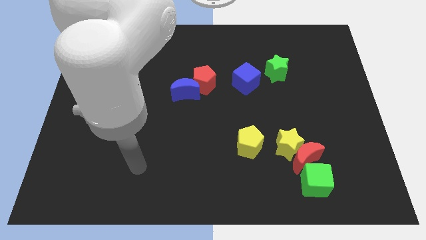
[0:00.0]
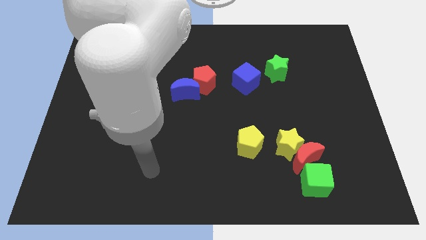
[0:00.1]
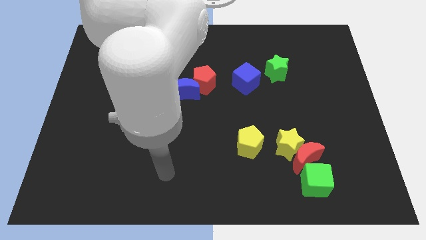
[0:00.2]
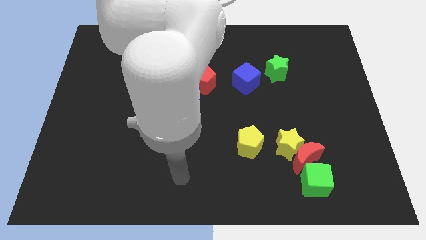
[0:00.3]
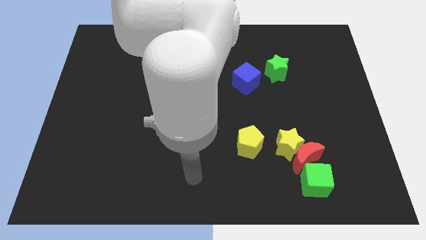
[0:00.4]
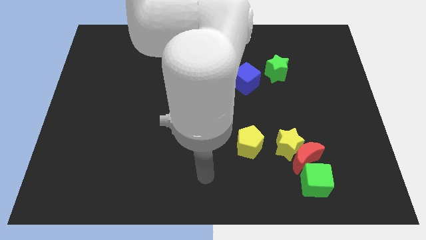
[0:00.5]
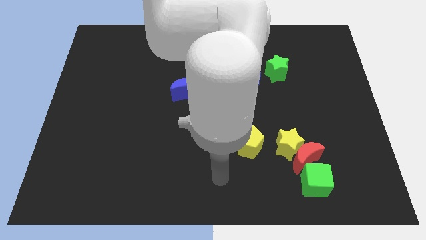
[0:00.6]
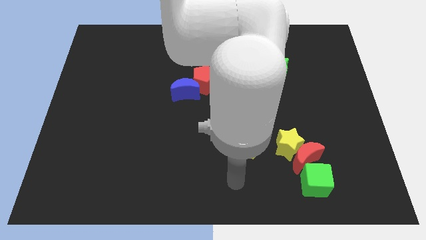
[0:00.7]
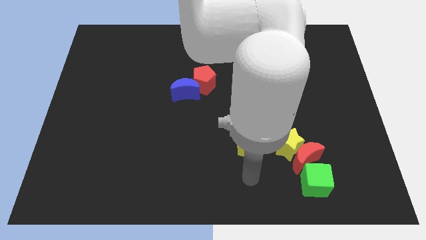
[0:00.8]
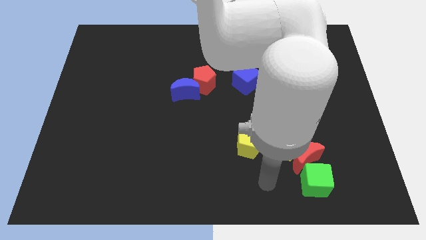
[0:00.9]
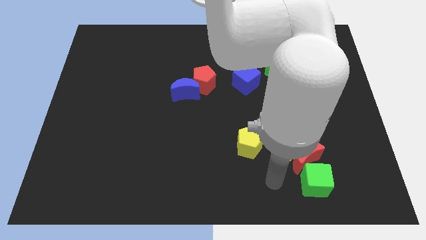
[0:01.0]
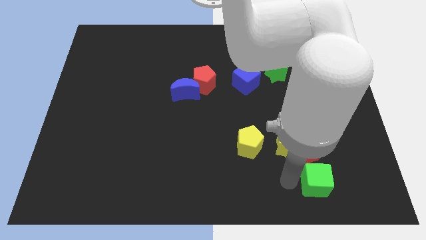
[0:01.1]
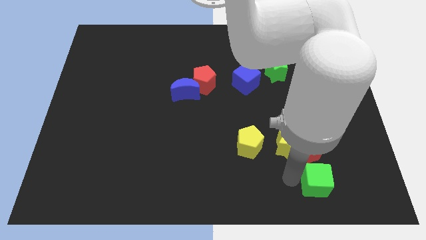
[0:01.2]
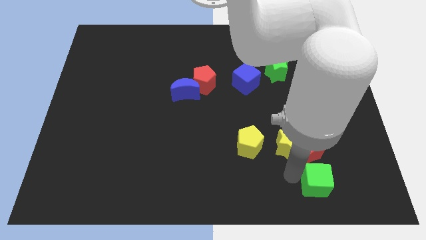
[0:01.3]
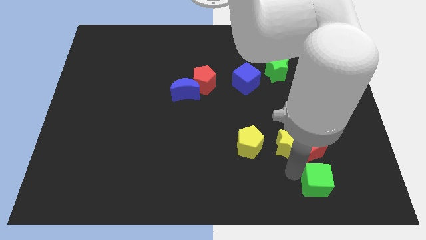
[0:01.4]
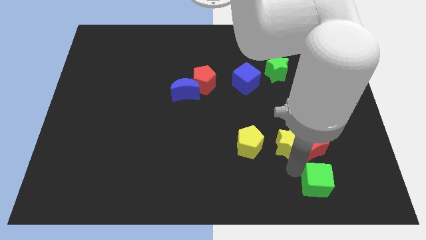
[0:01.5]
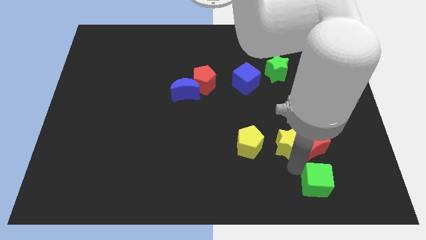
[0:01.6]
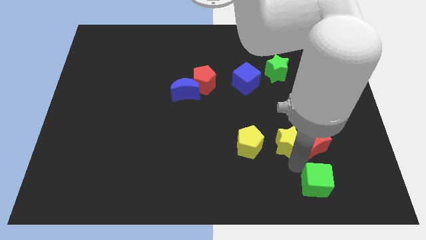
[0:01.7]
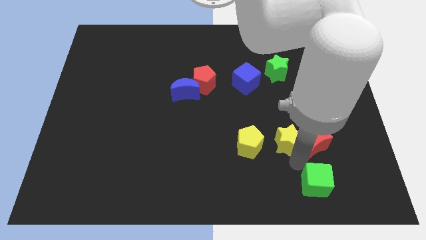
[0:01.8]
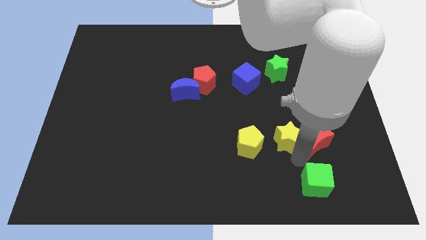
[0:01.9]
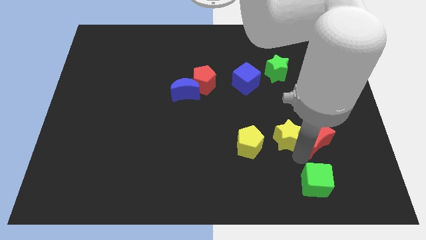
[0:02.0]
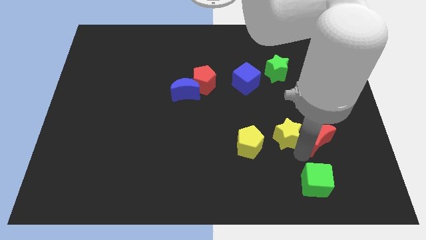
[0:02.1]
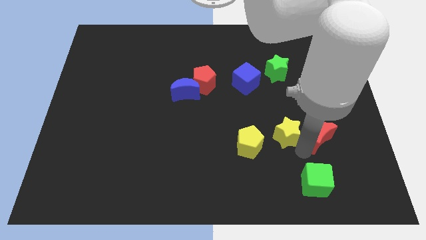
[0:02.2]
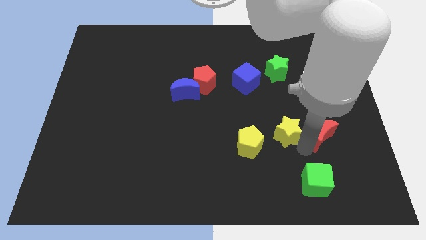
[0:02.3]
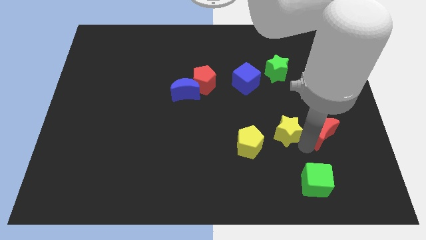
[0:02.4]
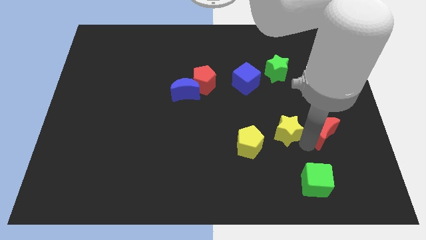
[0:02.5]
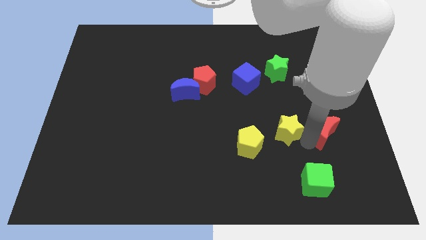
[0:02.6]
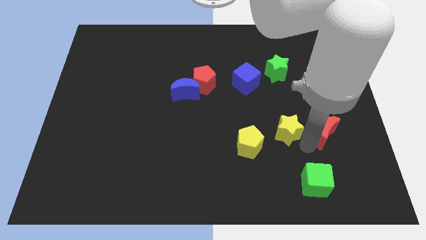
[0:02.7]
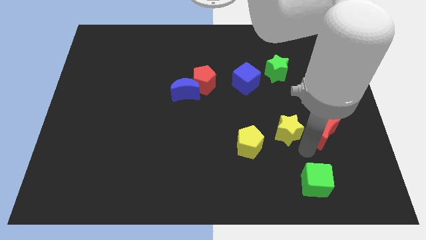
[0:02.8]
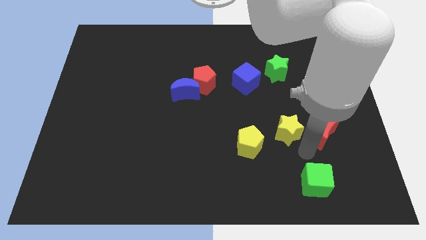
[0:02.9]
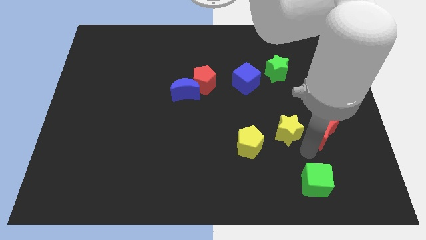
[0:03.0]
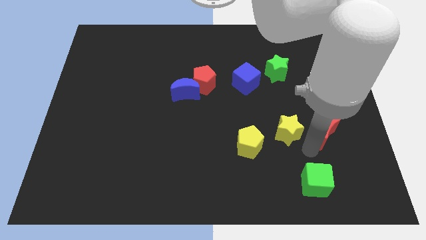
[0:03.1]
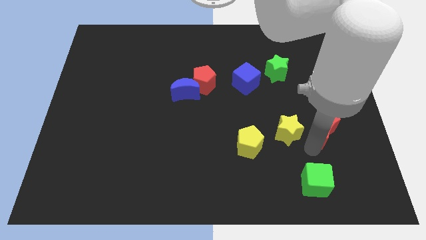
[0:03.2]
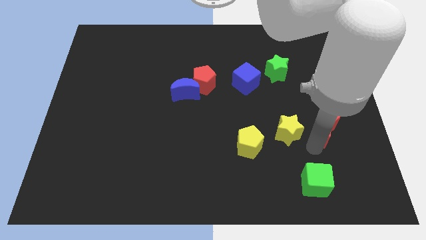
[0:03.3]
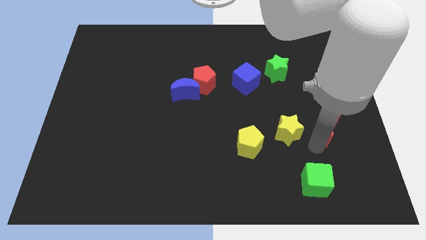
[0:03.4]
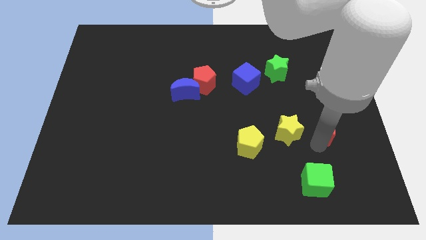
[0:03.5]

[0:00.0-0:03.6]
move the red moon away from the yellow star and green cube

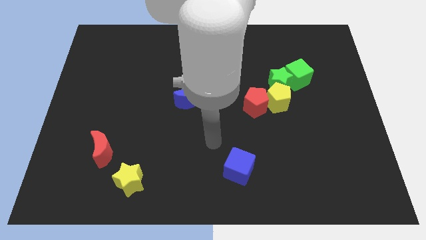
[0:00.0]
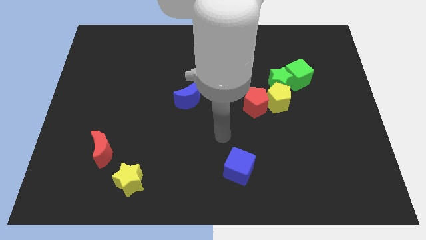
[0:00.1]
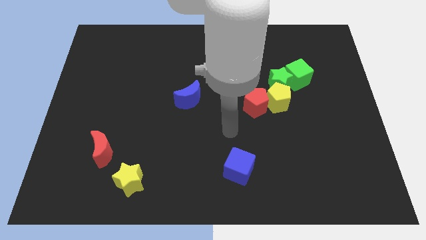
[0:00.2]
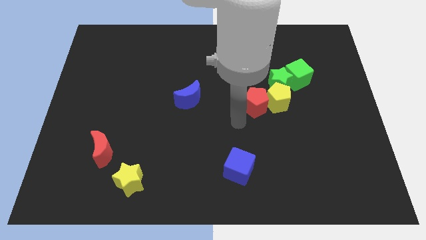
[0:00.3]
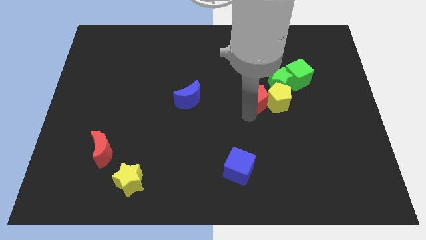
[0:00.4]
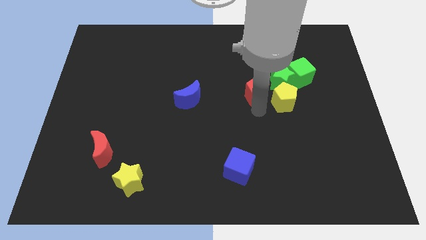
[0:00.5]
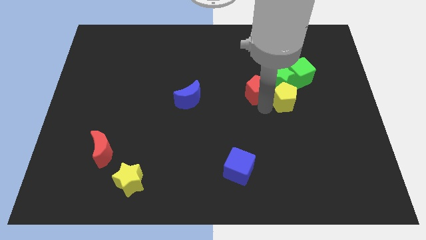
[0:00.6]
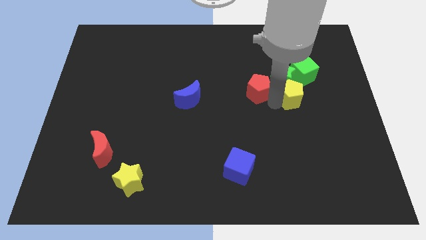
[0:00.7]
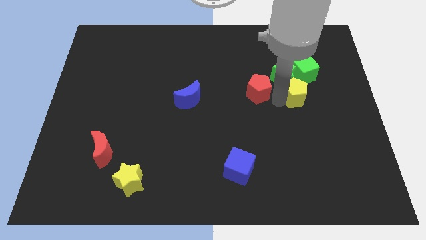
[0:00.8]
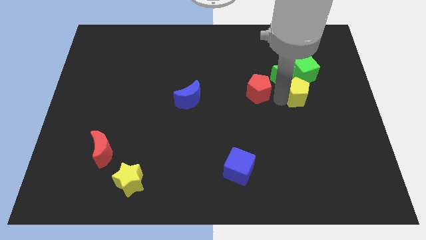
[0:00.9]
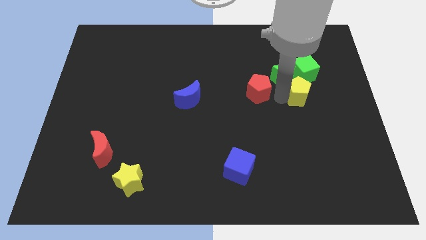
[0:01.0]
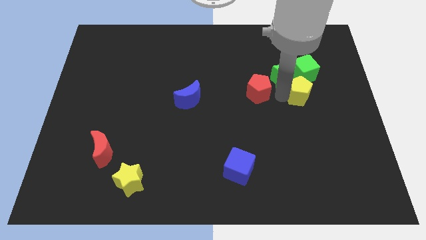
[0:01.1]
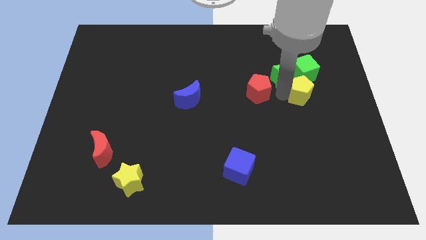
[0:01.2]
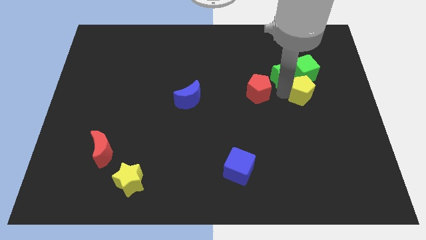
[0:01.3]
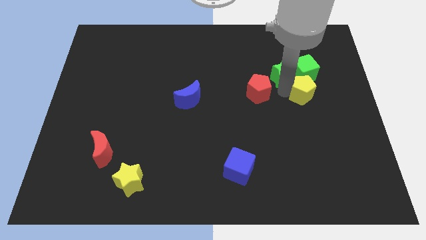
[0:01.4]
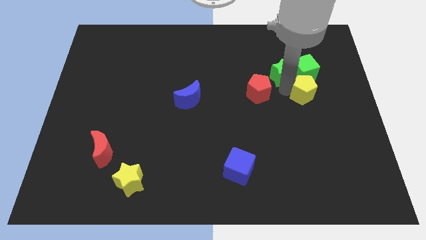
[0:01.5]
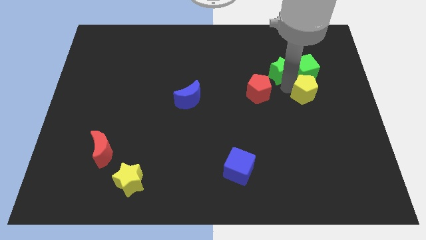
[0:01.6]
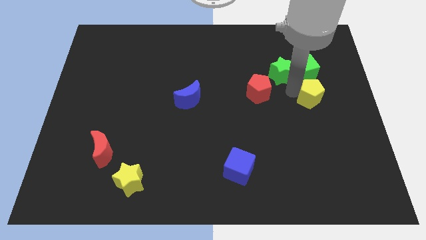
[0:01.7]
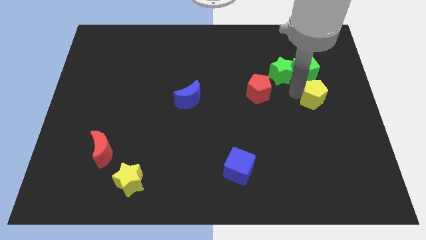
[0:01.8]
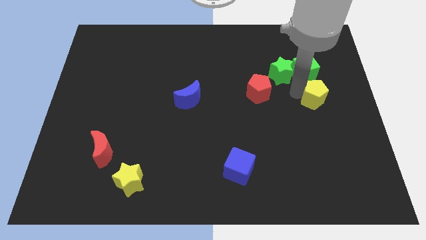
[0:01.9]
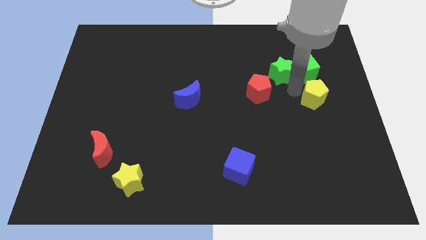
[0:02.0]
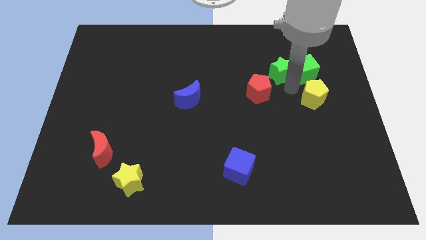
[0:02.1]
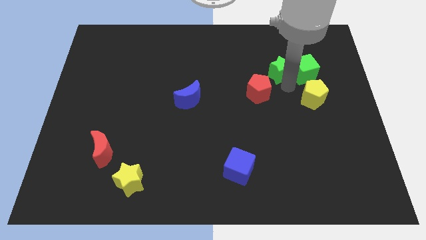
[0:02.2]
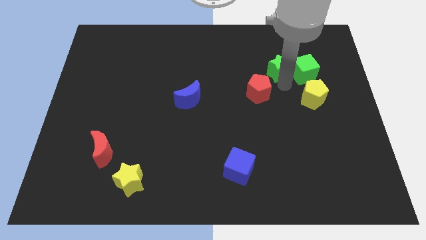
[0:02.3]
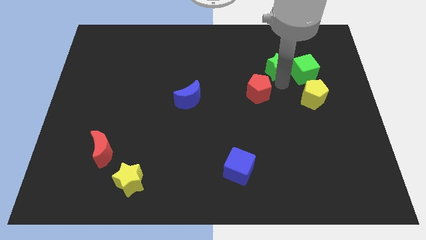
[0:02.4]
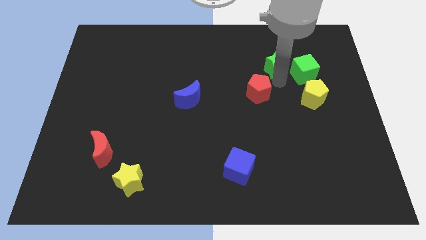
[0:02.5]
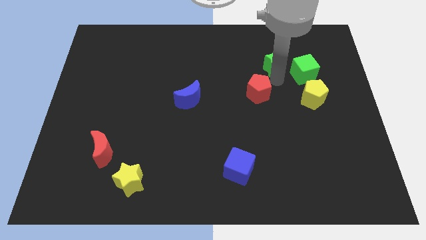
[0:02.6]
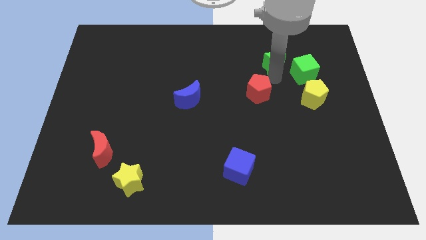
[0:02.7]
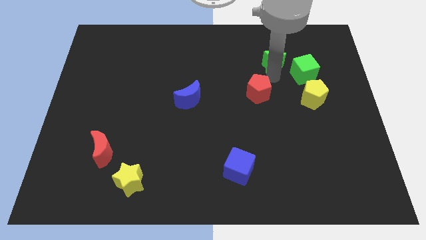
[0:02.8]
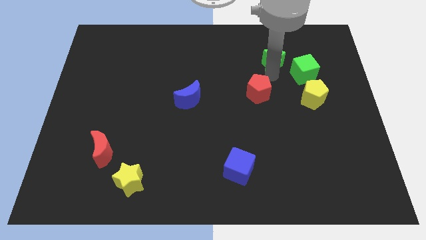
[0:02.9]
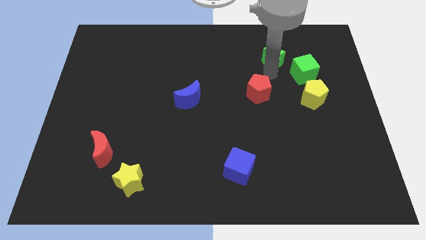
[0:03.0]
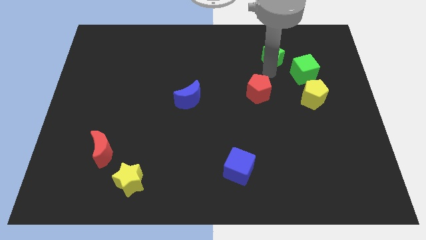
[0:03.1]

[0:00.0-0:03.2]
move the green star away from the group of blocks

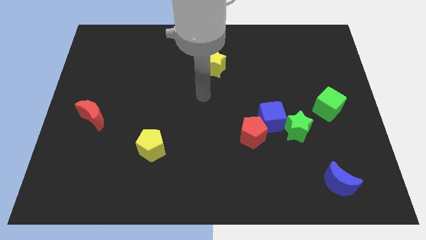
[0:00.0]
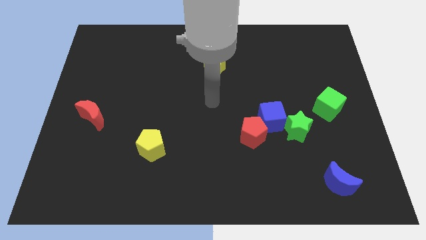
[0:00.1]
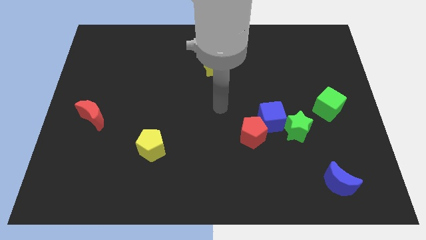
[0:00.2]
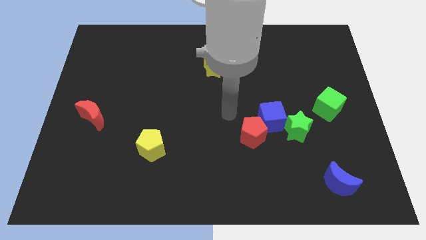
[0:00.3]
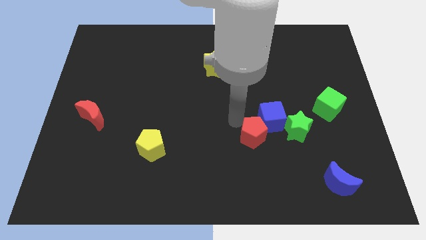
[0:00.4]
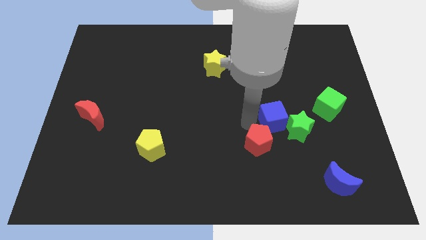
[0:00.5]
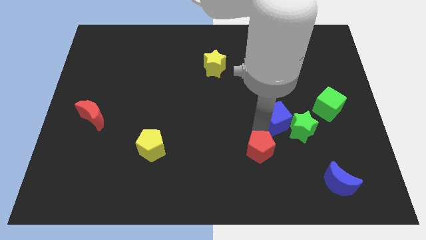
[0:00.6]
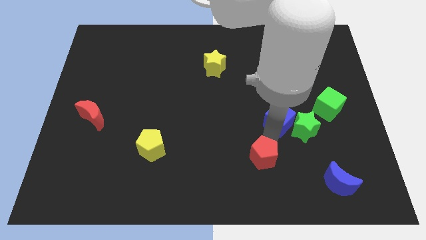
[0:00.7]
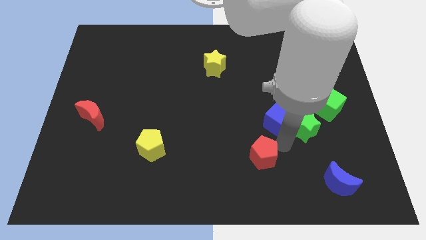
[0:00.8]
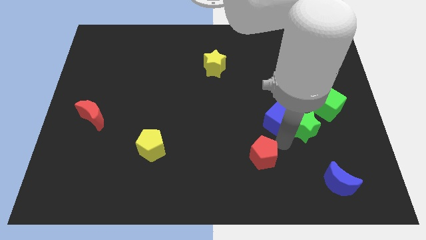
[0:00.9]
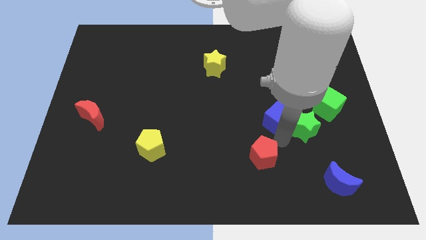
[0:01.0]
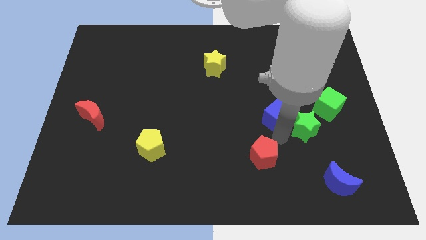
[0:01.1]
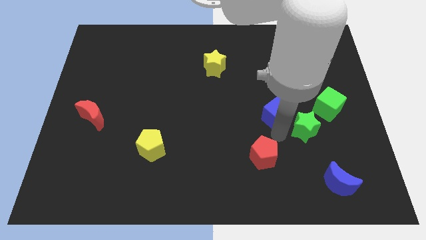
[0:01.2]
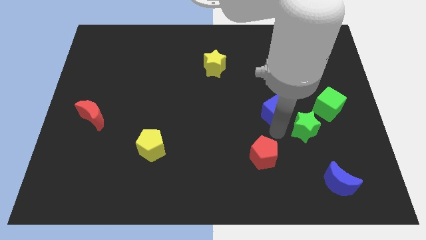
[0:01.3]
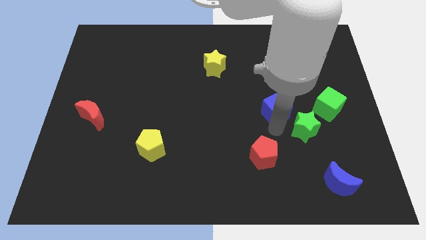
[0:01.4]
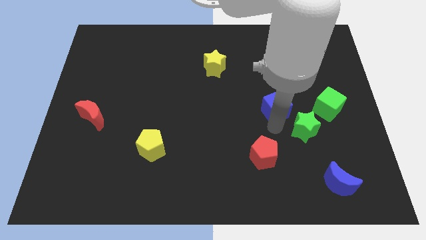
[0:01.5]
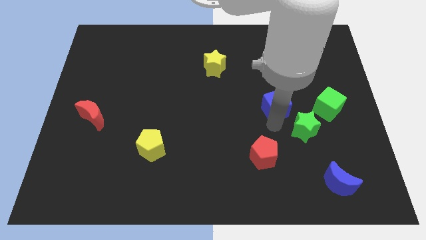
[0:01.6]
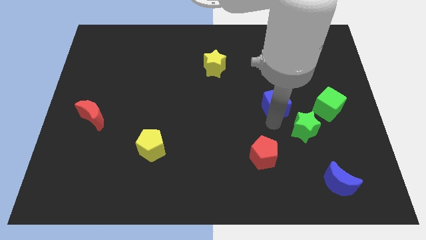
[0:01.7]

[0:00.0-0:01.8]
pull the blue cube apart from the green star and red pentagon

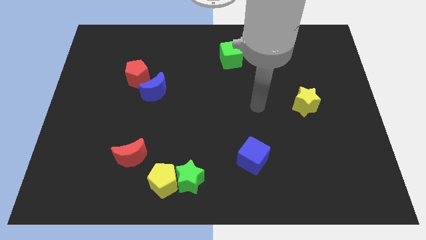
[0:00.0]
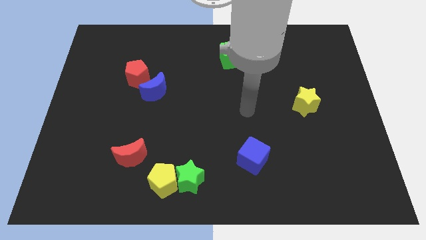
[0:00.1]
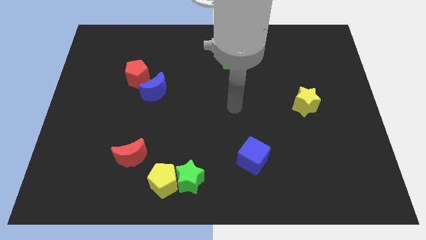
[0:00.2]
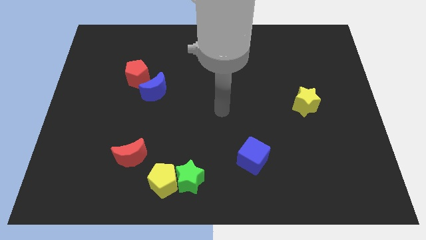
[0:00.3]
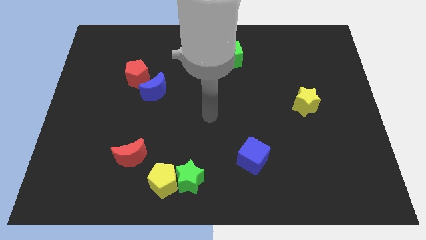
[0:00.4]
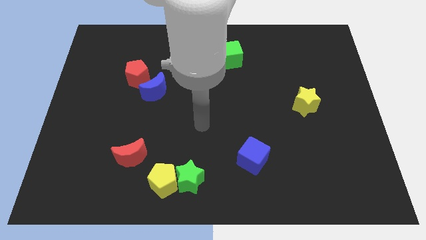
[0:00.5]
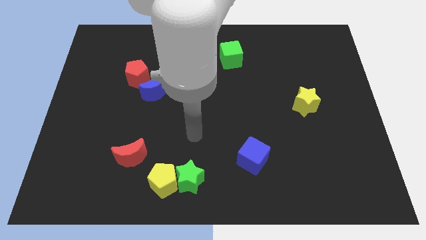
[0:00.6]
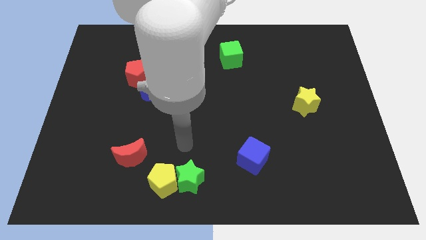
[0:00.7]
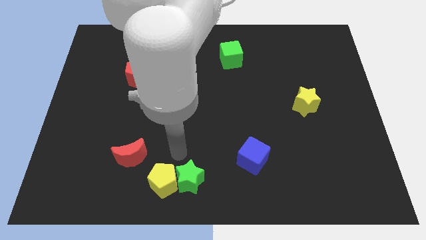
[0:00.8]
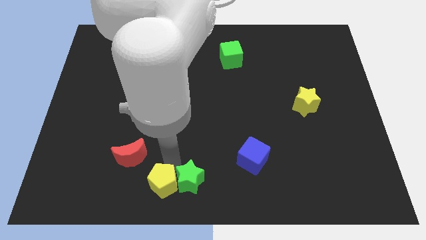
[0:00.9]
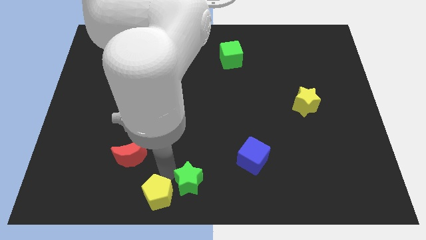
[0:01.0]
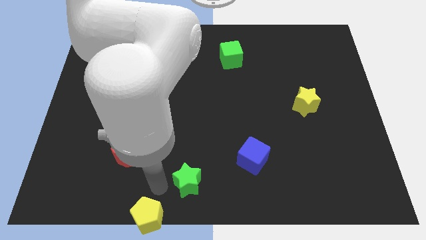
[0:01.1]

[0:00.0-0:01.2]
pull the green star apart from the yellow pentagon
